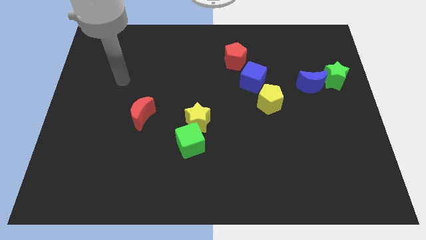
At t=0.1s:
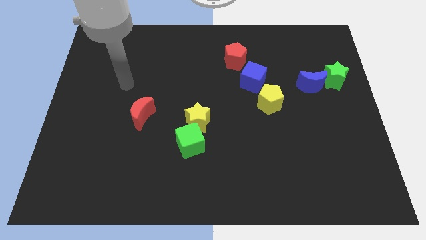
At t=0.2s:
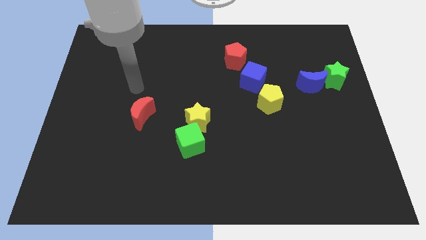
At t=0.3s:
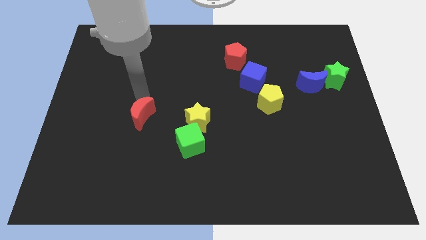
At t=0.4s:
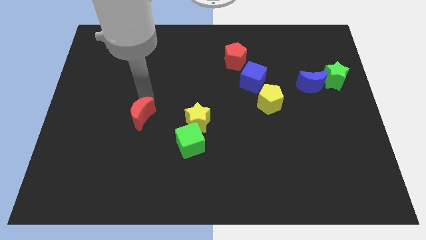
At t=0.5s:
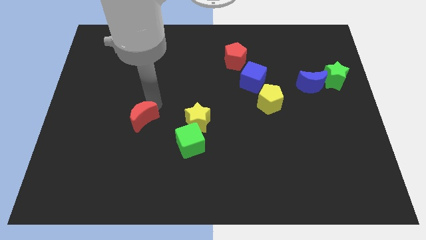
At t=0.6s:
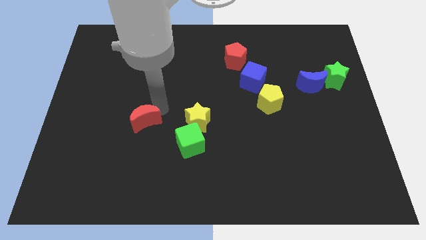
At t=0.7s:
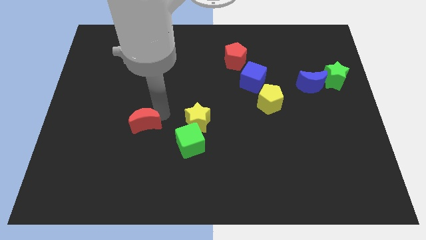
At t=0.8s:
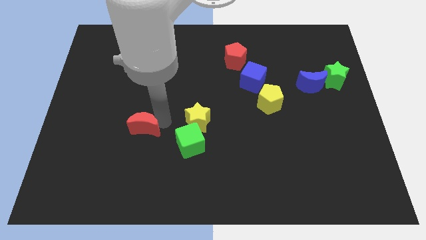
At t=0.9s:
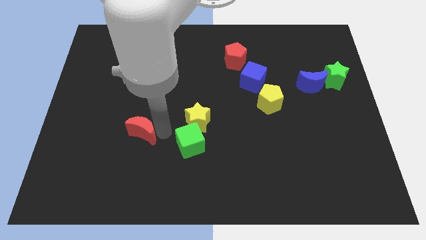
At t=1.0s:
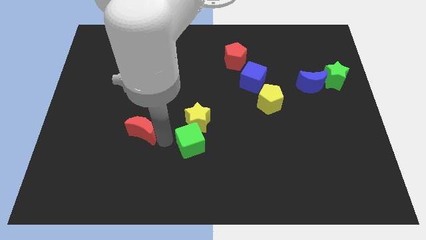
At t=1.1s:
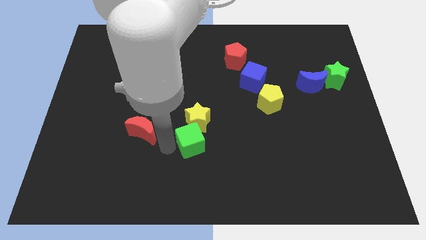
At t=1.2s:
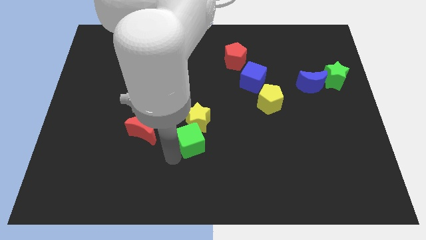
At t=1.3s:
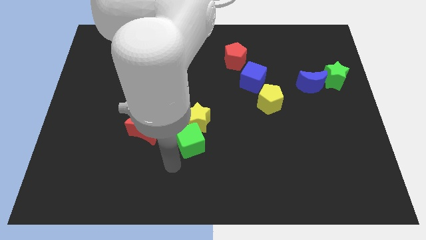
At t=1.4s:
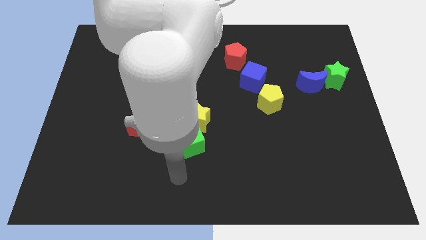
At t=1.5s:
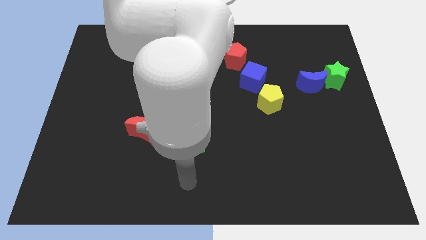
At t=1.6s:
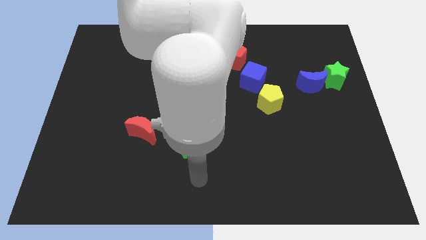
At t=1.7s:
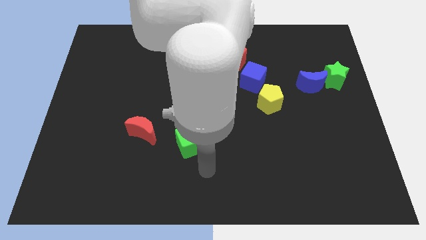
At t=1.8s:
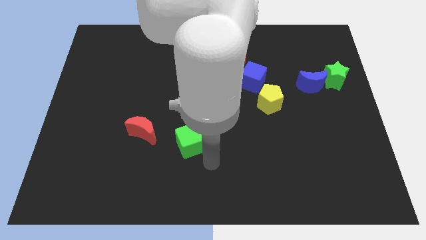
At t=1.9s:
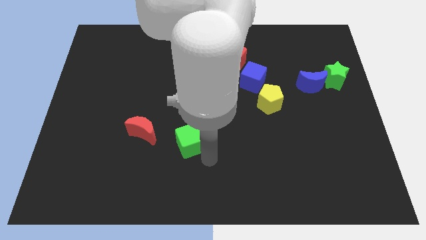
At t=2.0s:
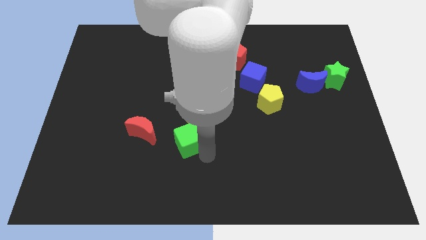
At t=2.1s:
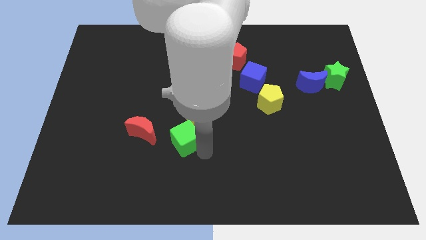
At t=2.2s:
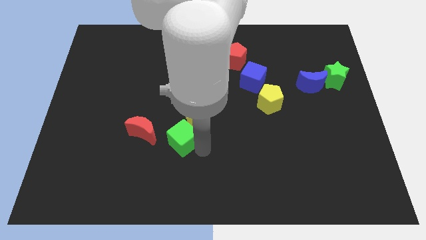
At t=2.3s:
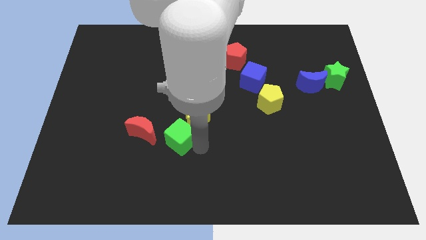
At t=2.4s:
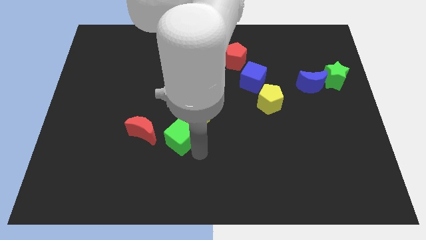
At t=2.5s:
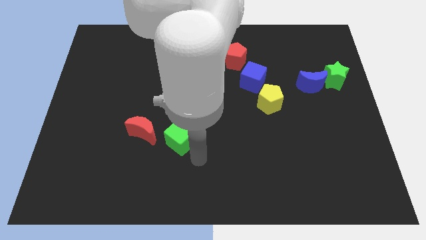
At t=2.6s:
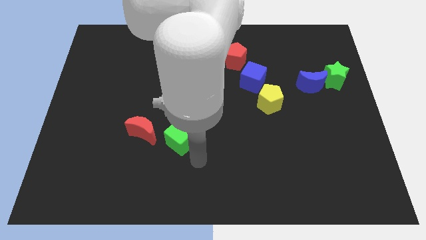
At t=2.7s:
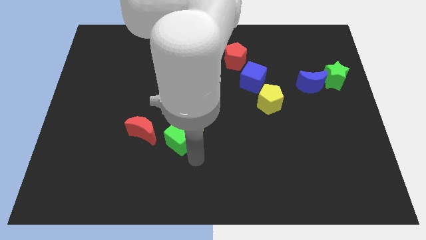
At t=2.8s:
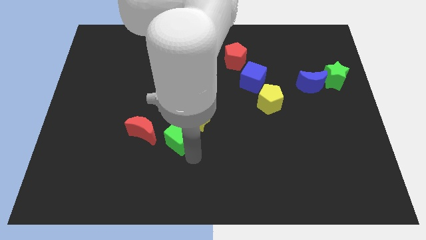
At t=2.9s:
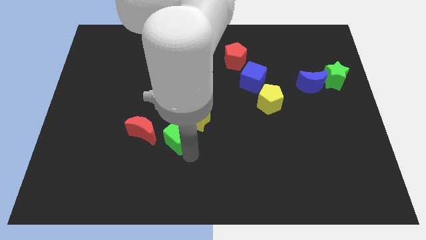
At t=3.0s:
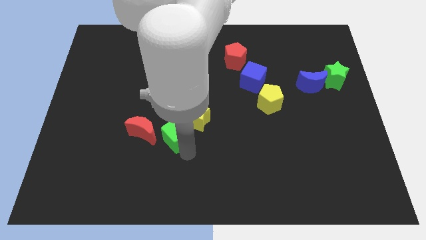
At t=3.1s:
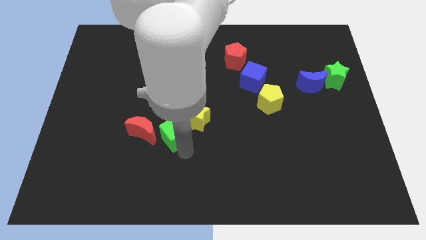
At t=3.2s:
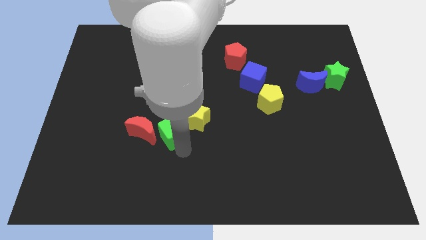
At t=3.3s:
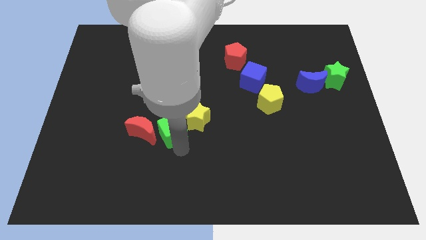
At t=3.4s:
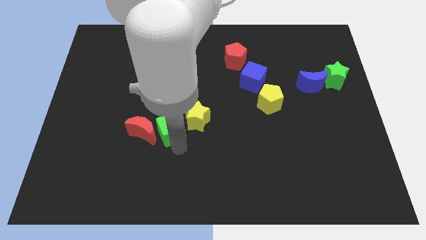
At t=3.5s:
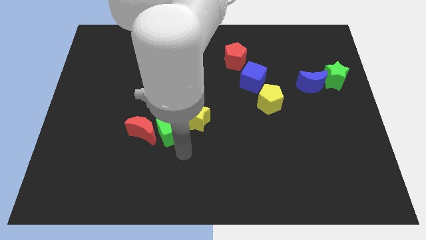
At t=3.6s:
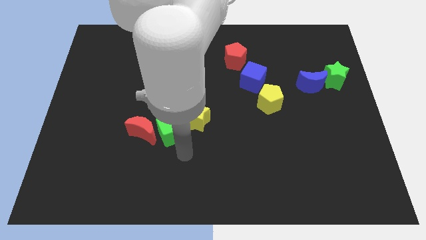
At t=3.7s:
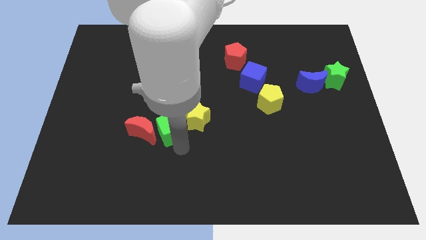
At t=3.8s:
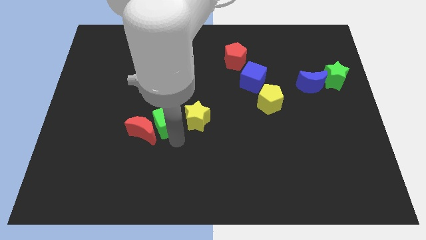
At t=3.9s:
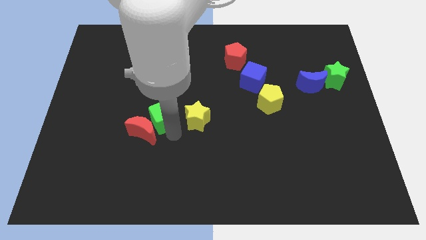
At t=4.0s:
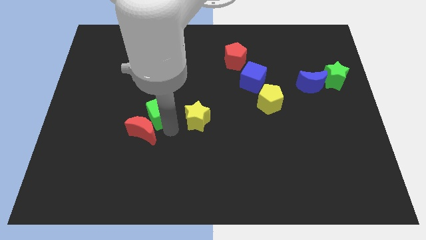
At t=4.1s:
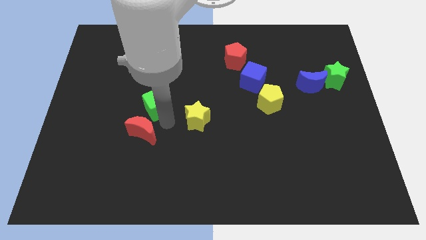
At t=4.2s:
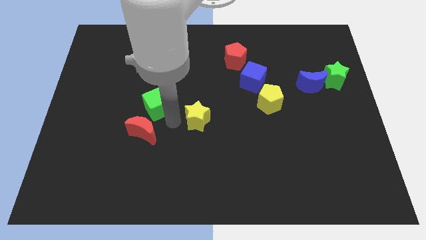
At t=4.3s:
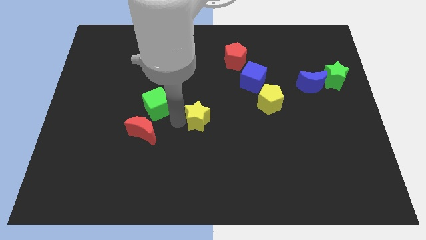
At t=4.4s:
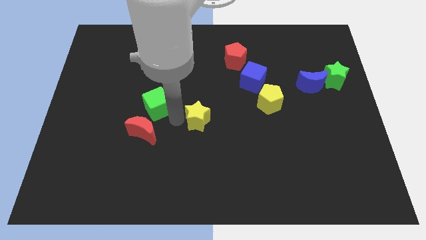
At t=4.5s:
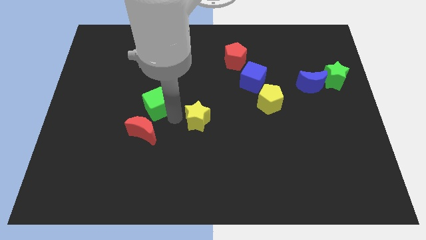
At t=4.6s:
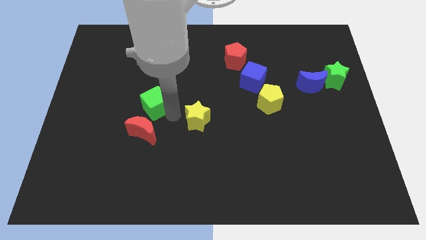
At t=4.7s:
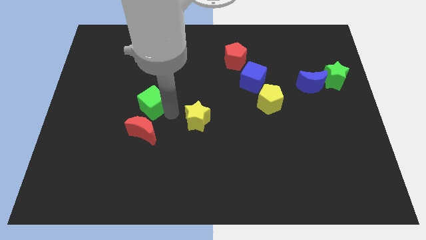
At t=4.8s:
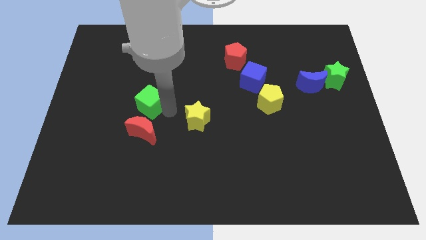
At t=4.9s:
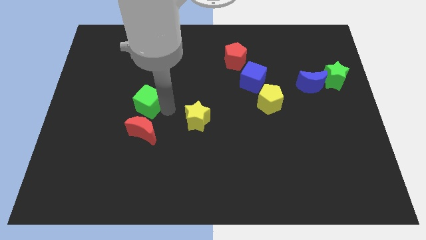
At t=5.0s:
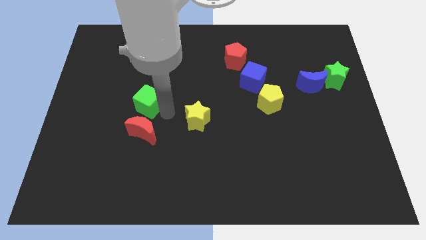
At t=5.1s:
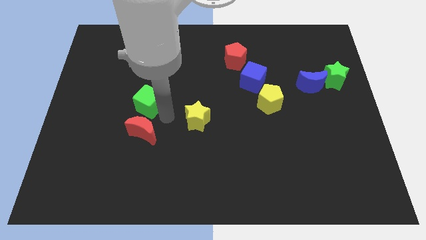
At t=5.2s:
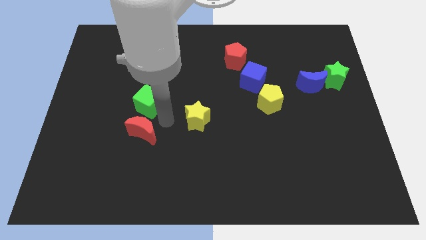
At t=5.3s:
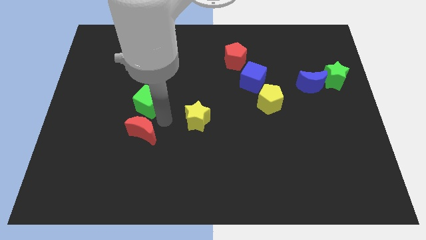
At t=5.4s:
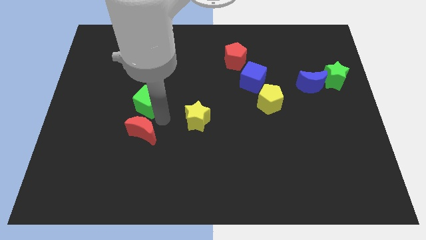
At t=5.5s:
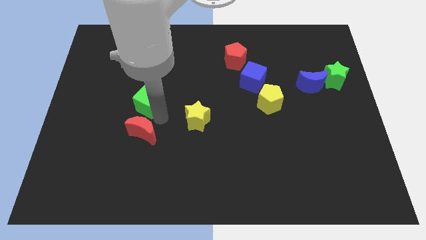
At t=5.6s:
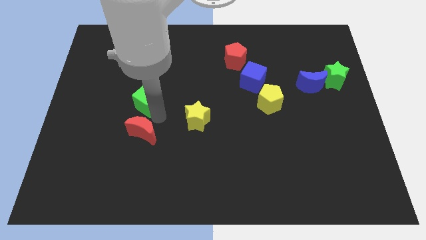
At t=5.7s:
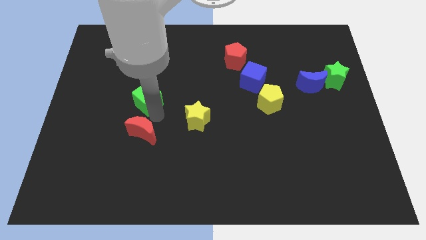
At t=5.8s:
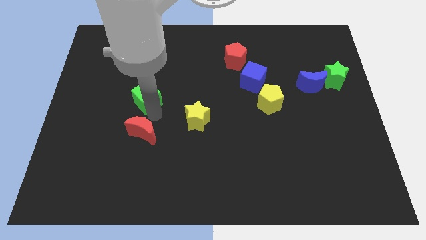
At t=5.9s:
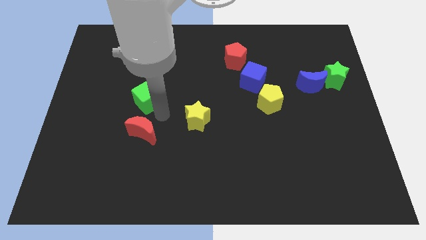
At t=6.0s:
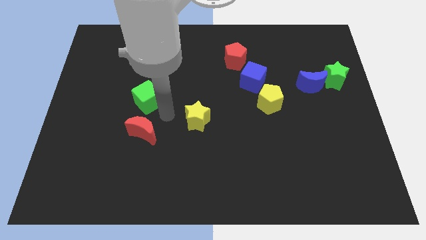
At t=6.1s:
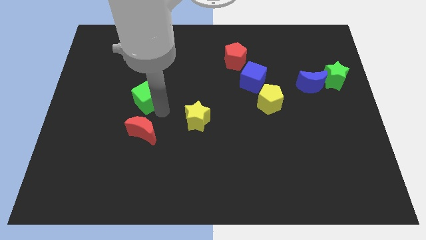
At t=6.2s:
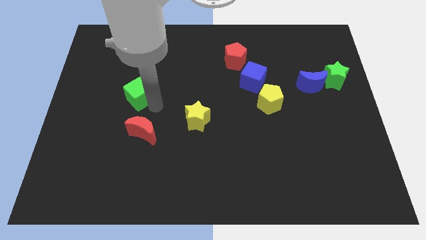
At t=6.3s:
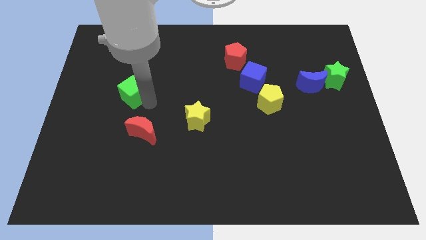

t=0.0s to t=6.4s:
slide the green cube upwards and left

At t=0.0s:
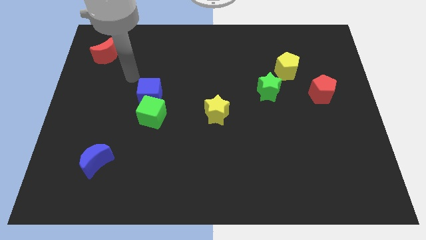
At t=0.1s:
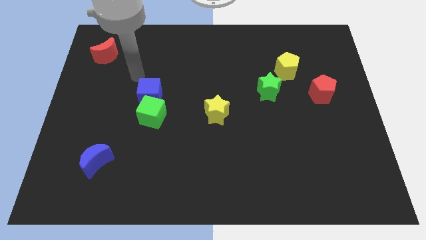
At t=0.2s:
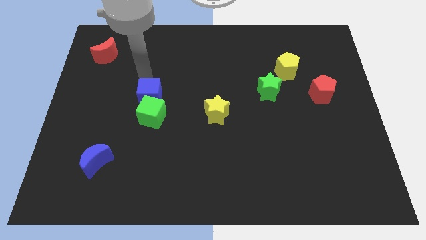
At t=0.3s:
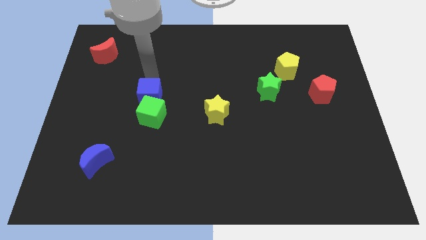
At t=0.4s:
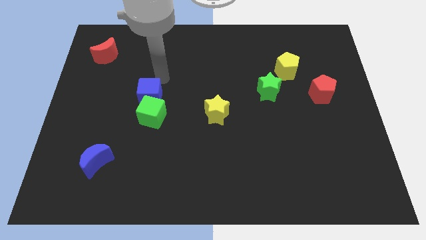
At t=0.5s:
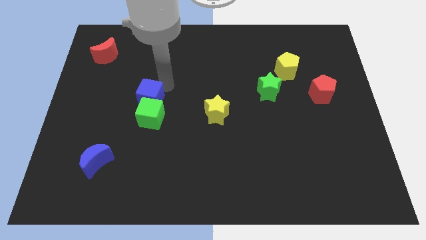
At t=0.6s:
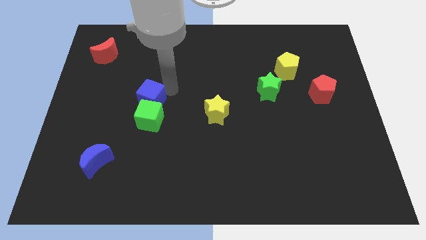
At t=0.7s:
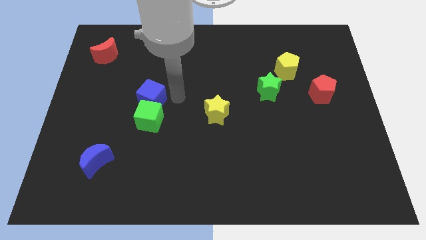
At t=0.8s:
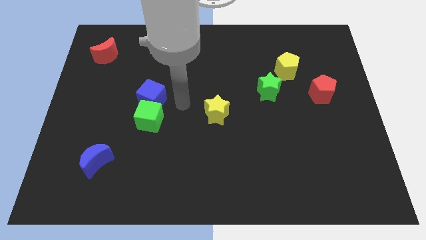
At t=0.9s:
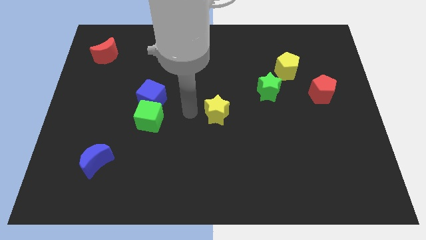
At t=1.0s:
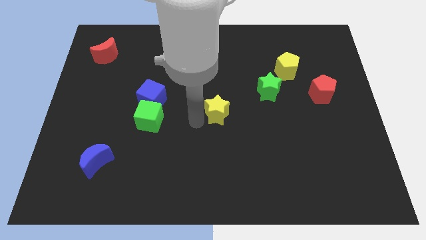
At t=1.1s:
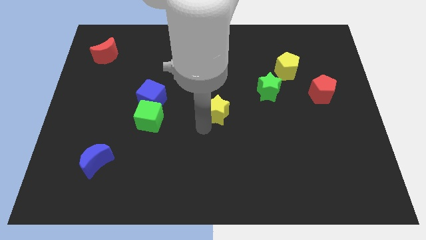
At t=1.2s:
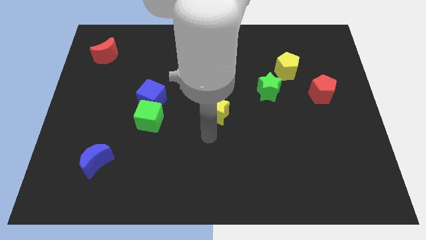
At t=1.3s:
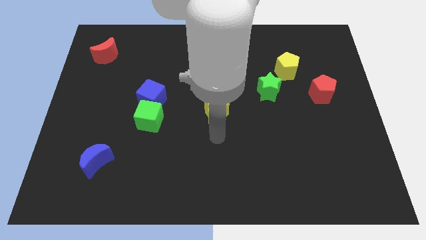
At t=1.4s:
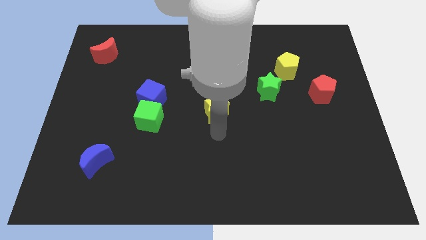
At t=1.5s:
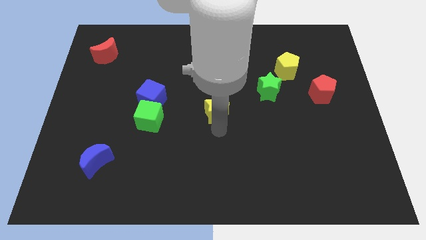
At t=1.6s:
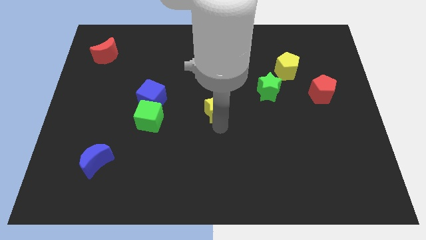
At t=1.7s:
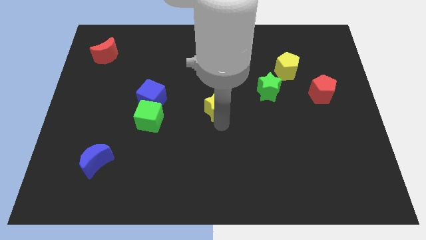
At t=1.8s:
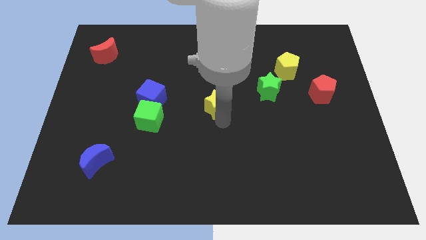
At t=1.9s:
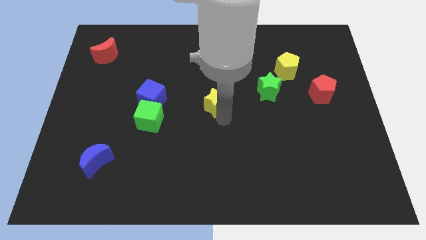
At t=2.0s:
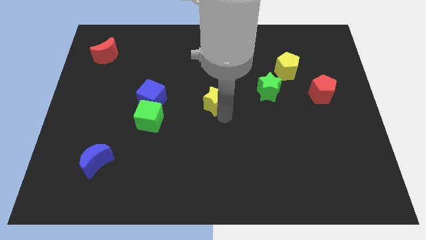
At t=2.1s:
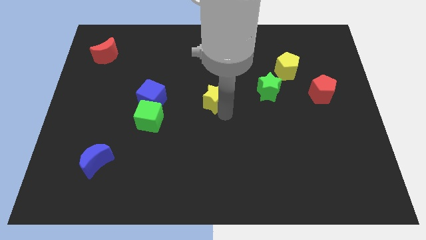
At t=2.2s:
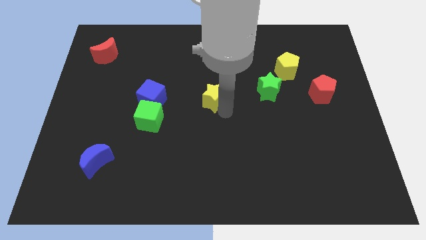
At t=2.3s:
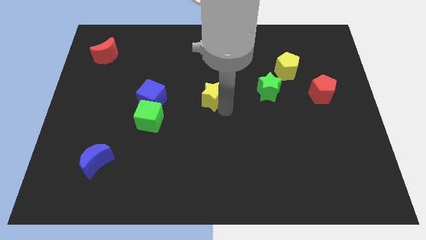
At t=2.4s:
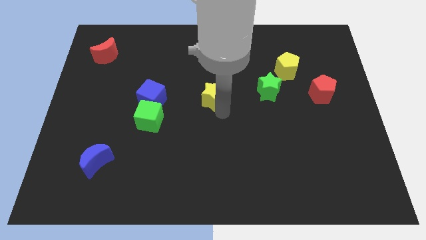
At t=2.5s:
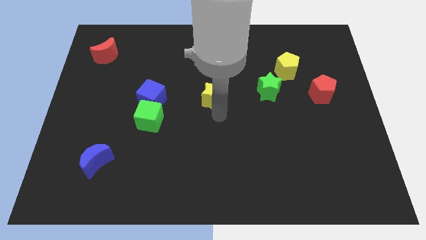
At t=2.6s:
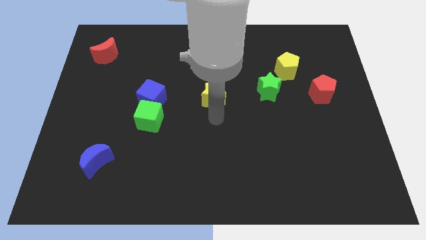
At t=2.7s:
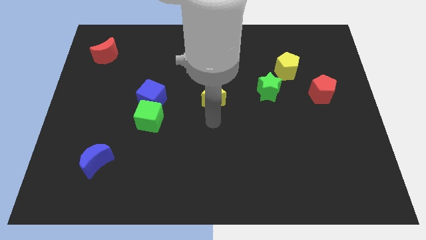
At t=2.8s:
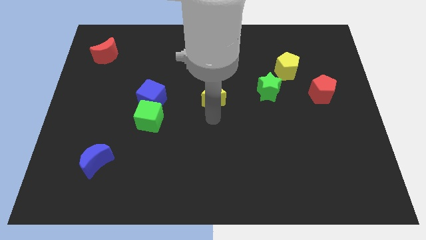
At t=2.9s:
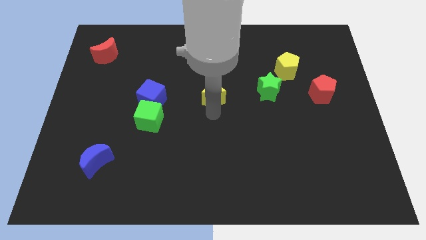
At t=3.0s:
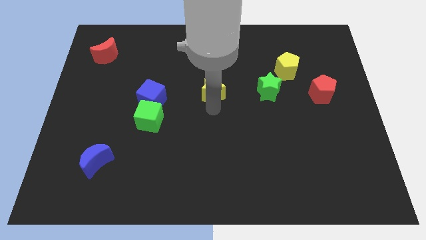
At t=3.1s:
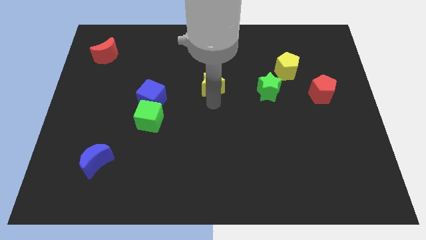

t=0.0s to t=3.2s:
push the yellow star up a bit
